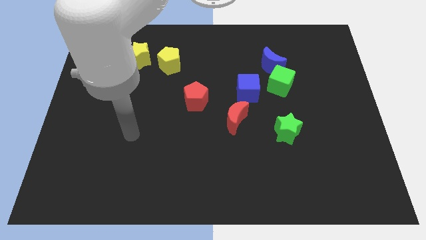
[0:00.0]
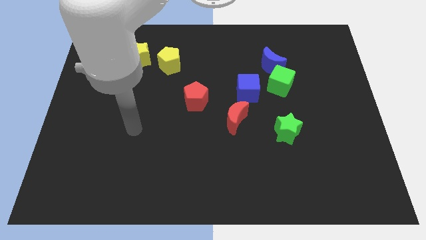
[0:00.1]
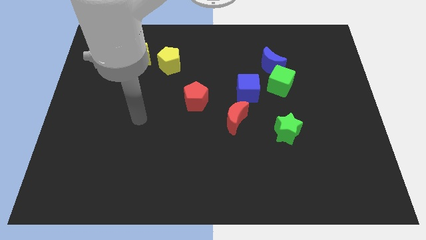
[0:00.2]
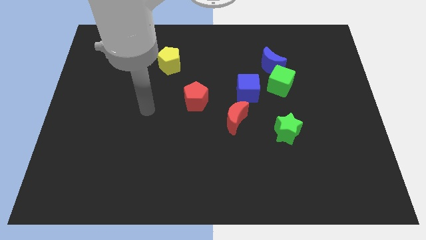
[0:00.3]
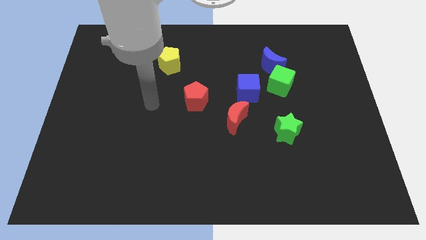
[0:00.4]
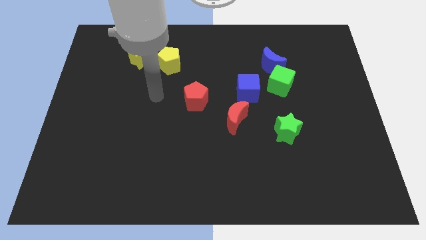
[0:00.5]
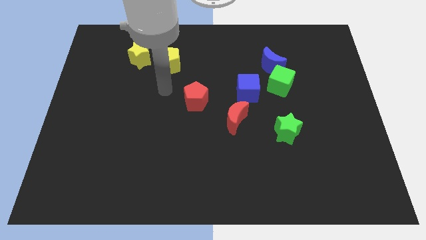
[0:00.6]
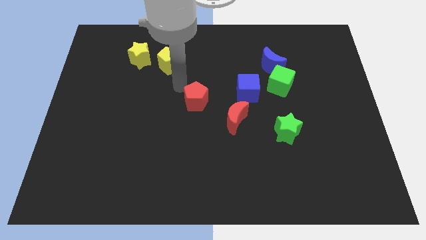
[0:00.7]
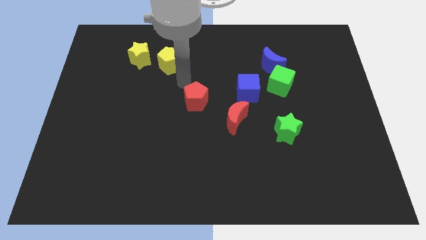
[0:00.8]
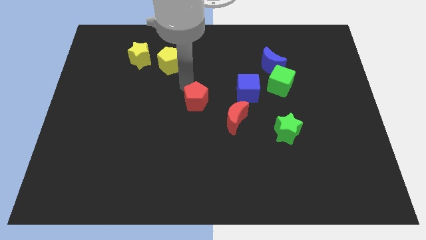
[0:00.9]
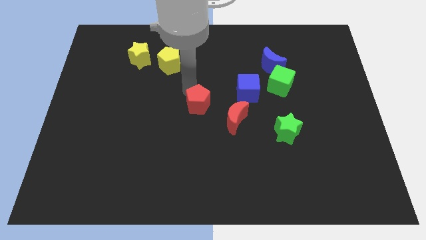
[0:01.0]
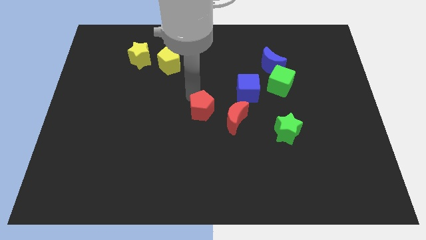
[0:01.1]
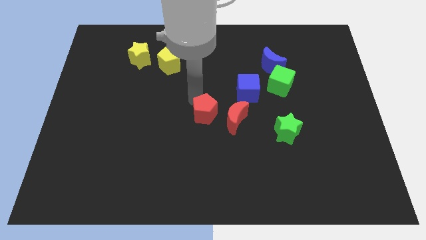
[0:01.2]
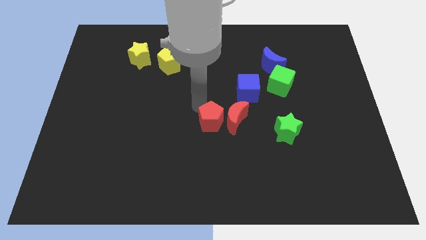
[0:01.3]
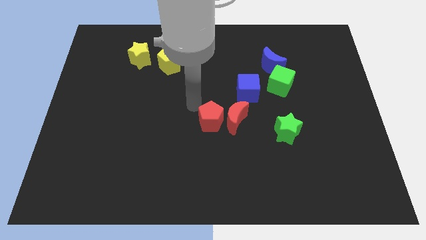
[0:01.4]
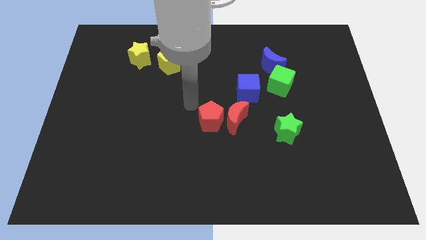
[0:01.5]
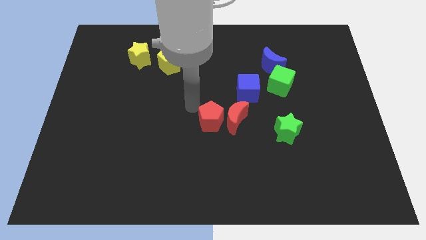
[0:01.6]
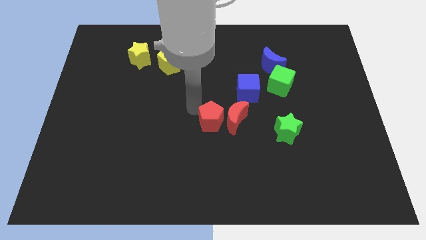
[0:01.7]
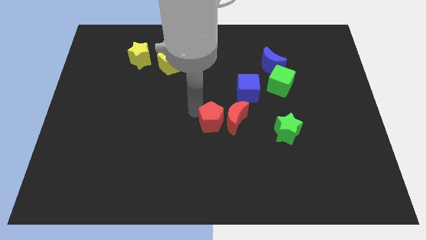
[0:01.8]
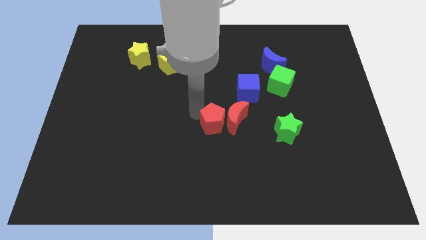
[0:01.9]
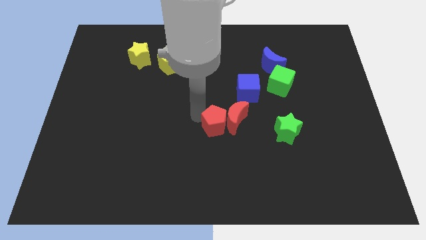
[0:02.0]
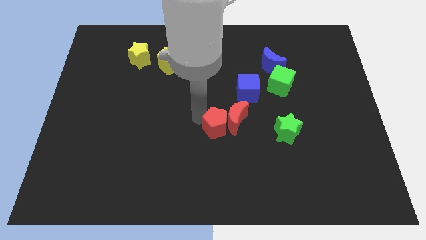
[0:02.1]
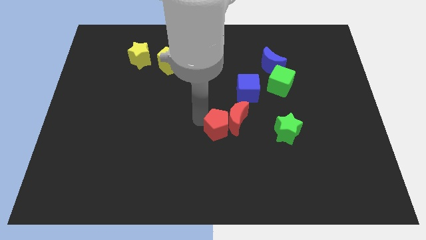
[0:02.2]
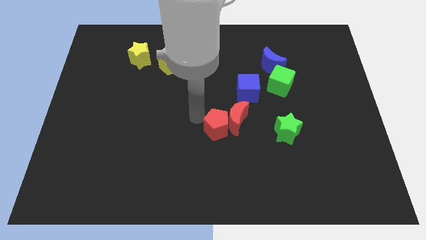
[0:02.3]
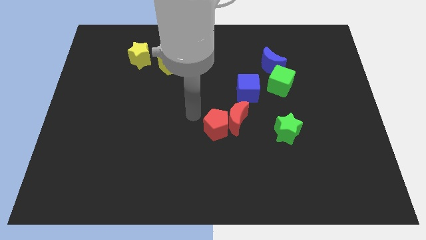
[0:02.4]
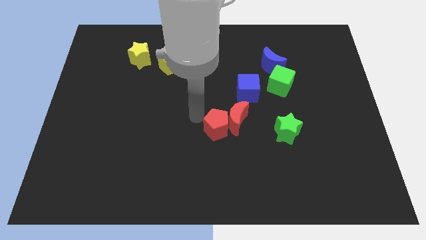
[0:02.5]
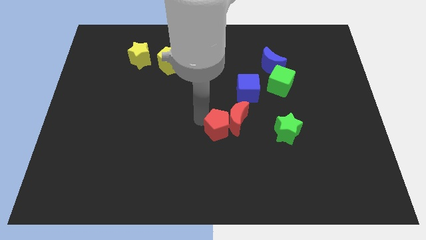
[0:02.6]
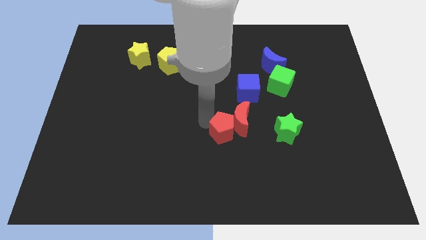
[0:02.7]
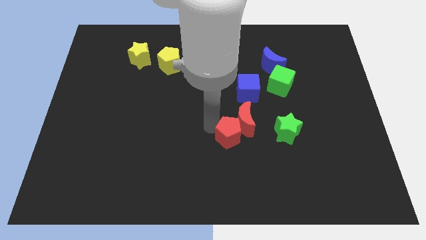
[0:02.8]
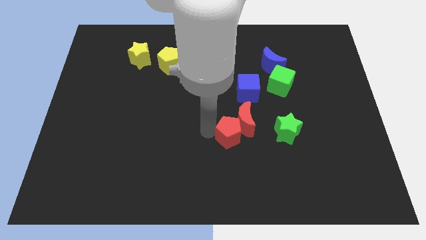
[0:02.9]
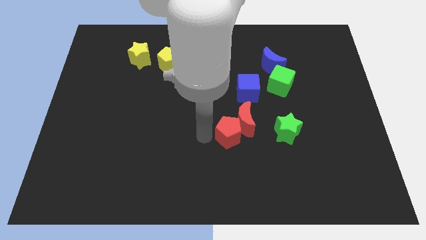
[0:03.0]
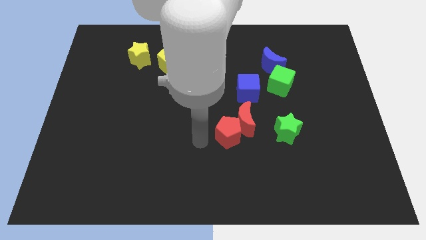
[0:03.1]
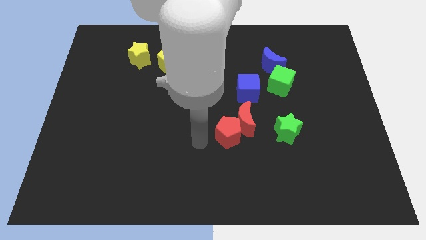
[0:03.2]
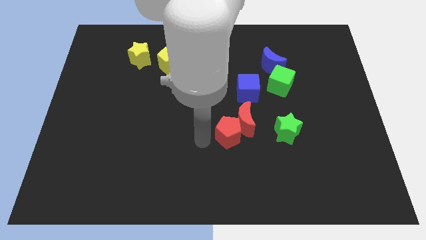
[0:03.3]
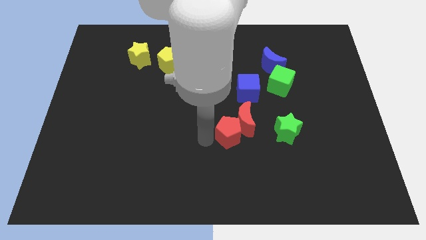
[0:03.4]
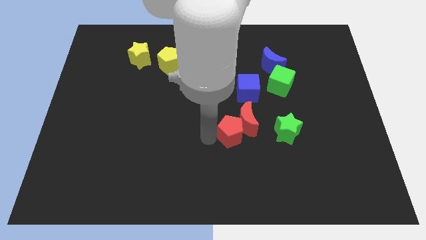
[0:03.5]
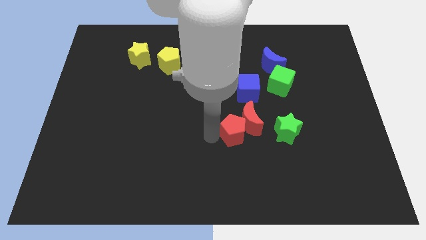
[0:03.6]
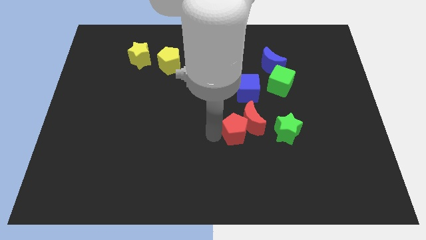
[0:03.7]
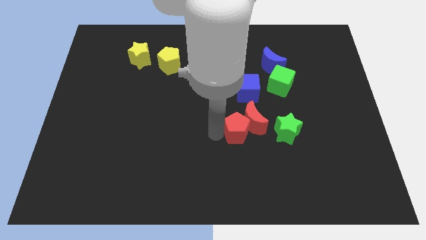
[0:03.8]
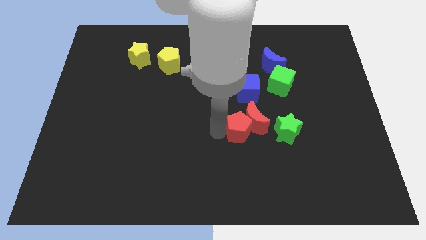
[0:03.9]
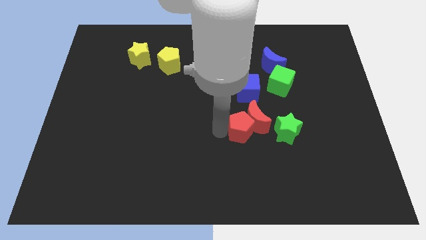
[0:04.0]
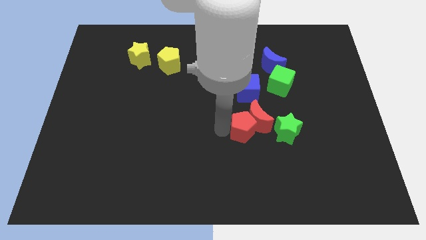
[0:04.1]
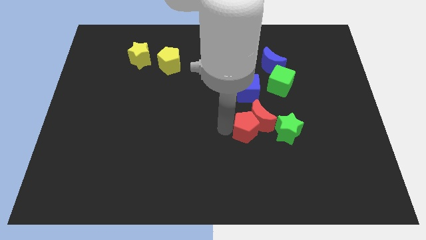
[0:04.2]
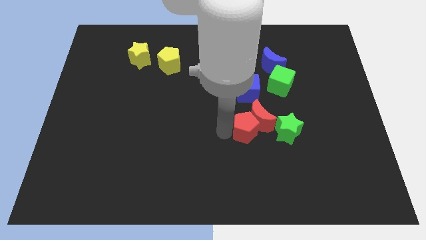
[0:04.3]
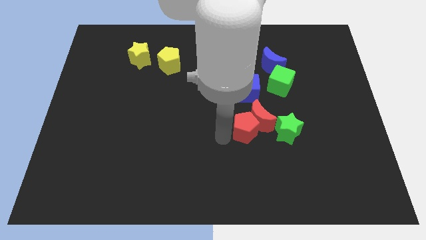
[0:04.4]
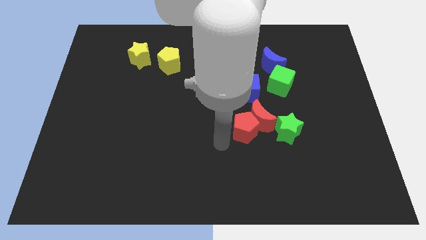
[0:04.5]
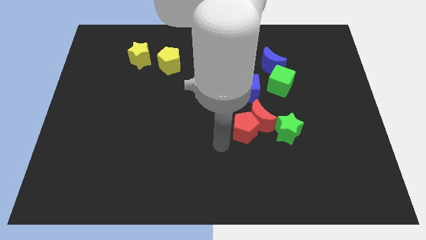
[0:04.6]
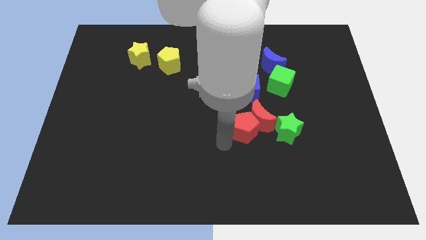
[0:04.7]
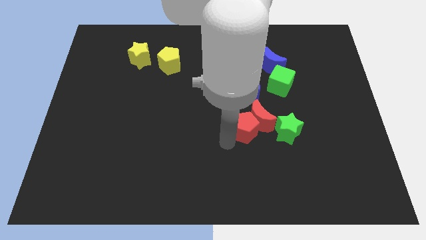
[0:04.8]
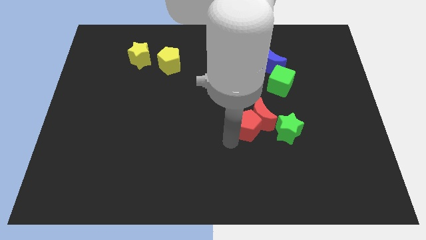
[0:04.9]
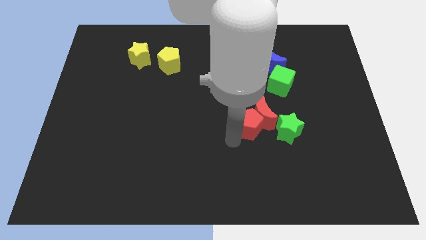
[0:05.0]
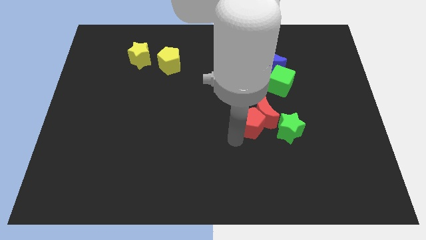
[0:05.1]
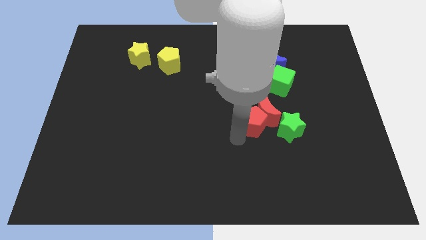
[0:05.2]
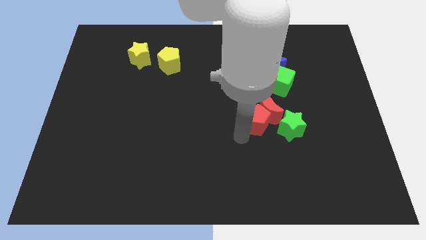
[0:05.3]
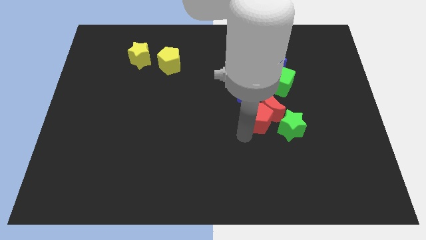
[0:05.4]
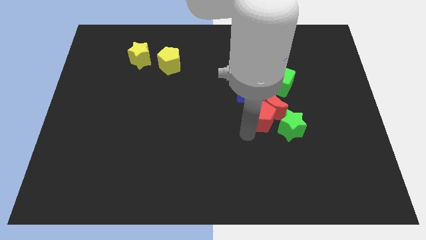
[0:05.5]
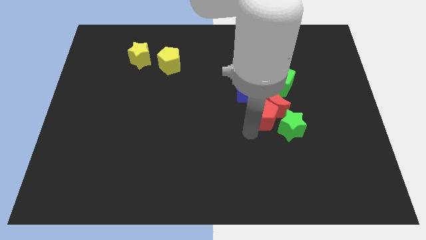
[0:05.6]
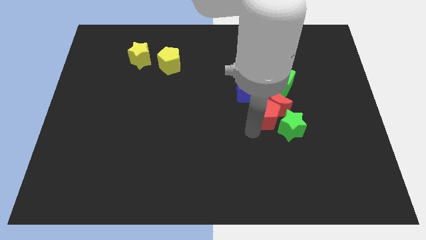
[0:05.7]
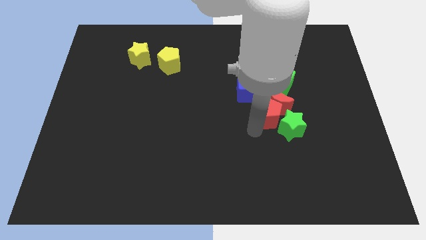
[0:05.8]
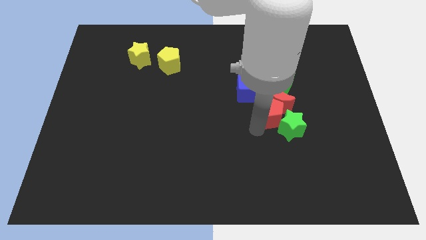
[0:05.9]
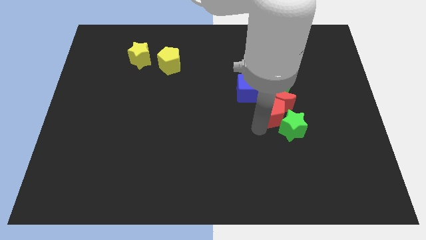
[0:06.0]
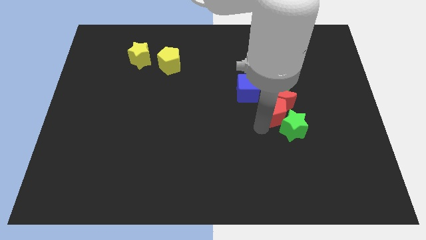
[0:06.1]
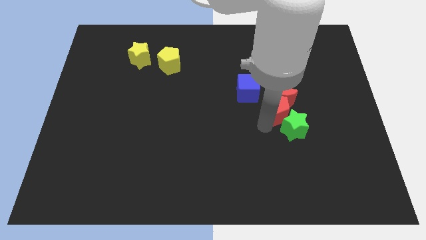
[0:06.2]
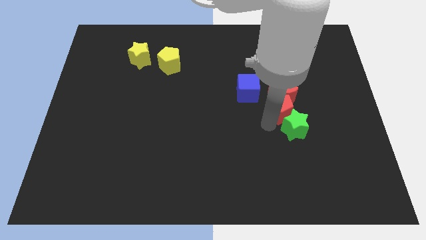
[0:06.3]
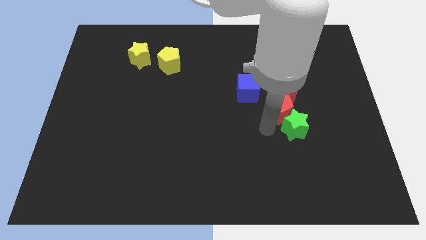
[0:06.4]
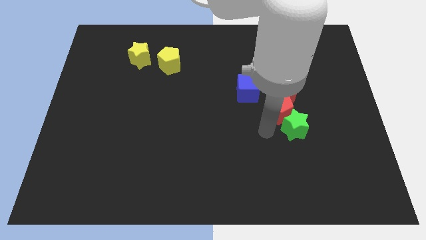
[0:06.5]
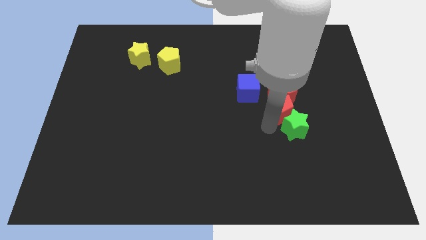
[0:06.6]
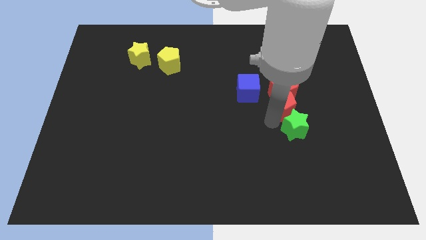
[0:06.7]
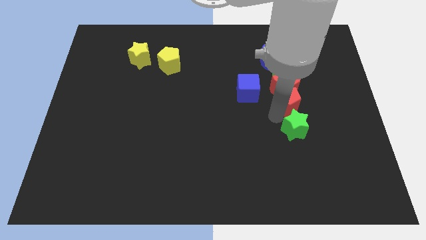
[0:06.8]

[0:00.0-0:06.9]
push the red pentagon just right of the blue cube
